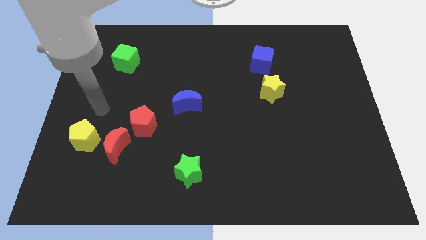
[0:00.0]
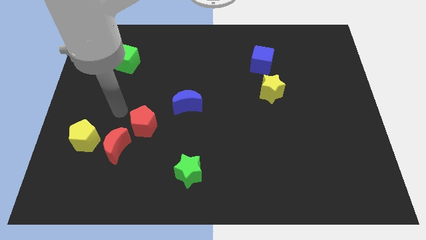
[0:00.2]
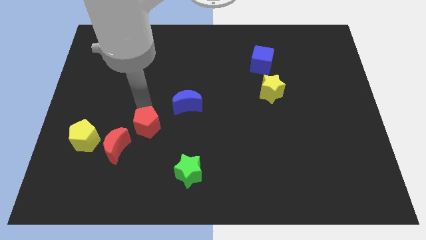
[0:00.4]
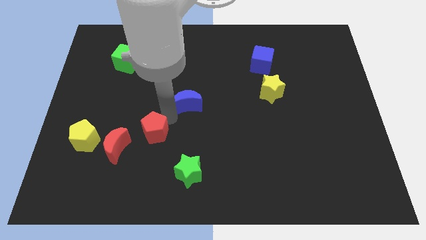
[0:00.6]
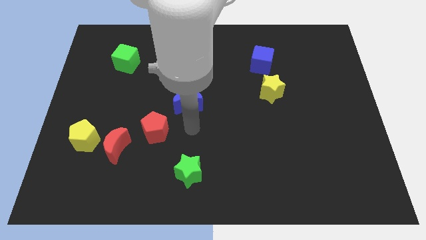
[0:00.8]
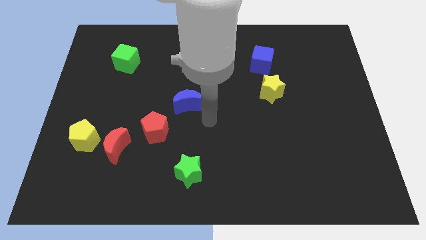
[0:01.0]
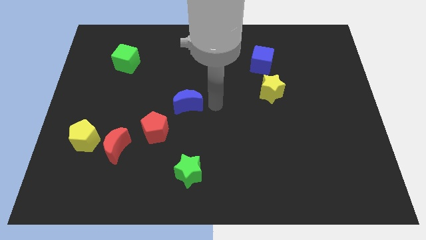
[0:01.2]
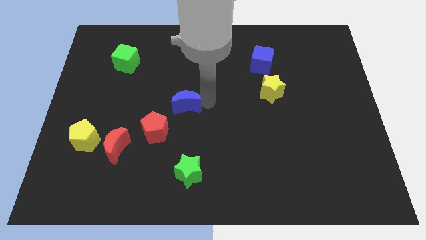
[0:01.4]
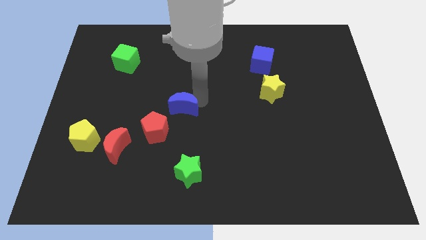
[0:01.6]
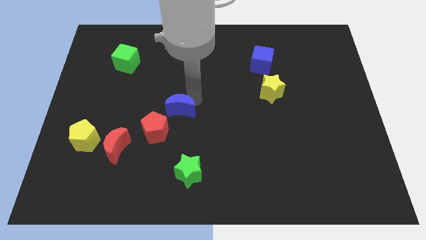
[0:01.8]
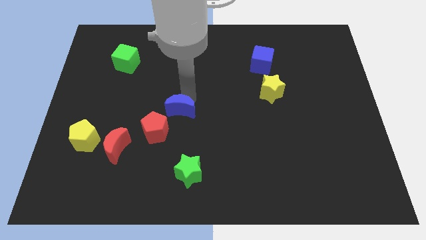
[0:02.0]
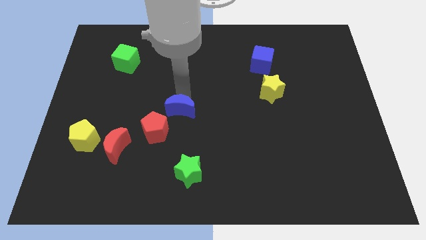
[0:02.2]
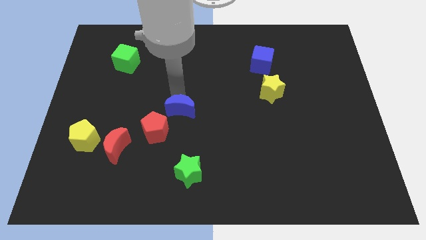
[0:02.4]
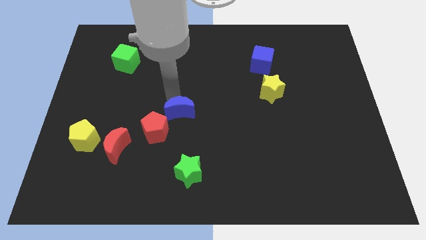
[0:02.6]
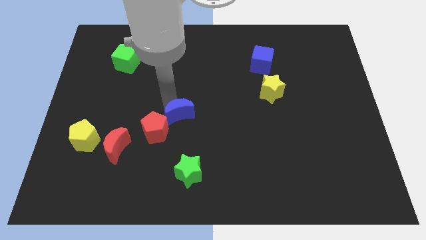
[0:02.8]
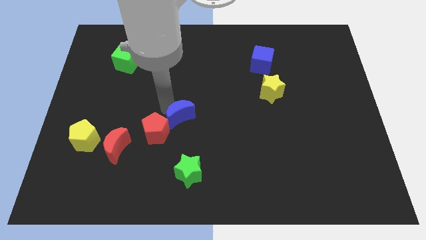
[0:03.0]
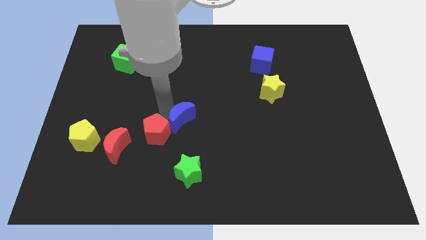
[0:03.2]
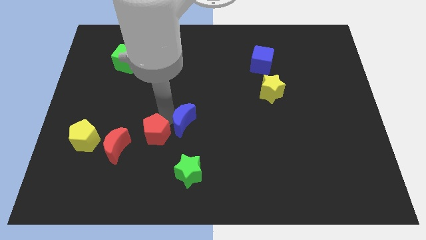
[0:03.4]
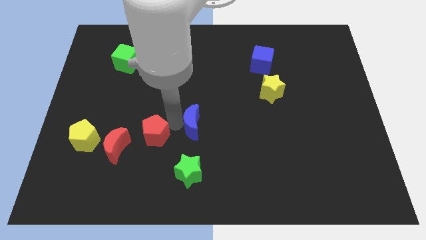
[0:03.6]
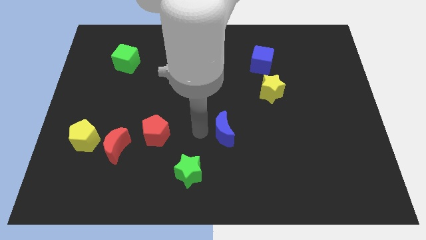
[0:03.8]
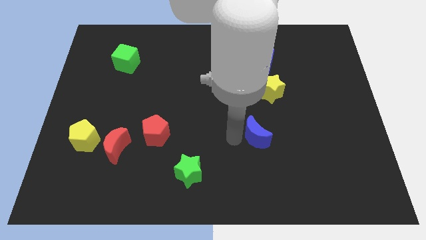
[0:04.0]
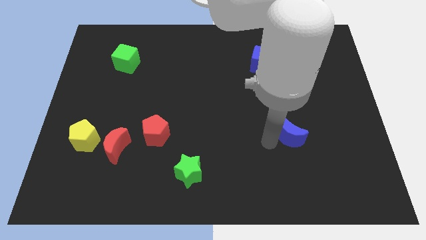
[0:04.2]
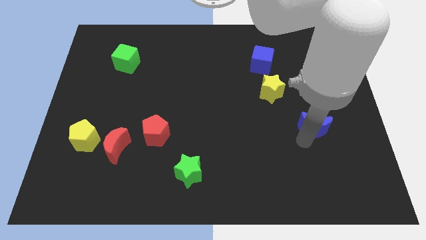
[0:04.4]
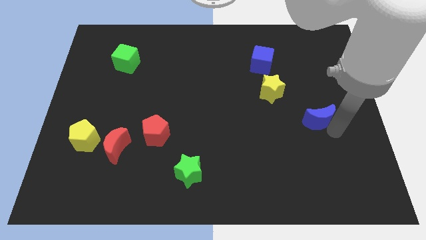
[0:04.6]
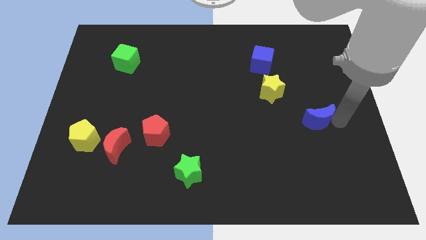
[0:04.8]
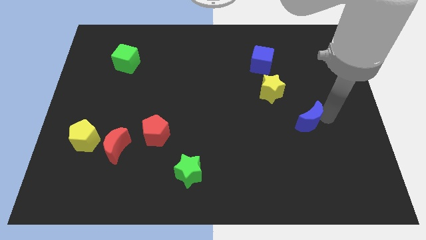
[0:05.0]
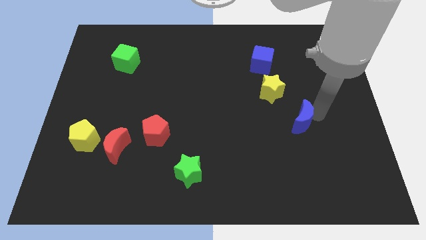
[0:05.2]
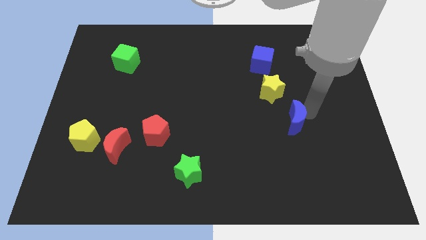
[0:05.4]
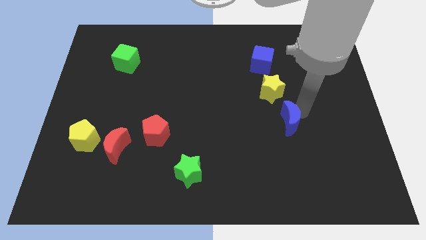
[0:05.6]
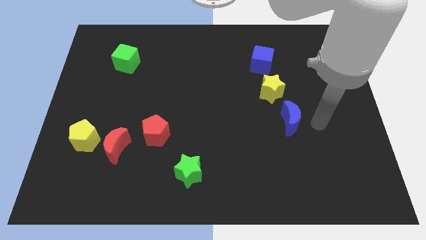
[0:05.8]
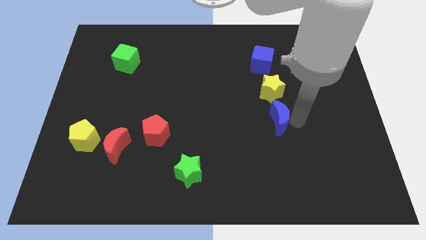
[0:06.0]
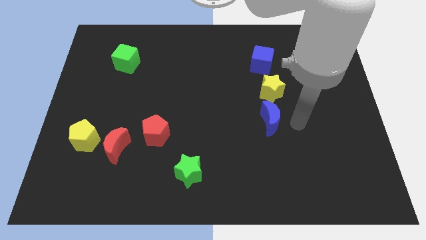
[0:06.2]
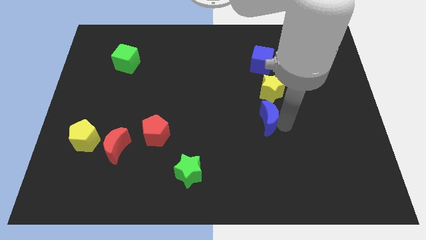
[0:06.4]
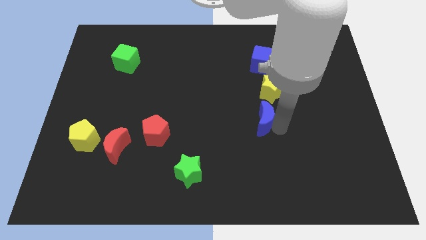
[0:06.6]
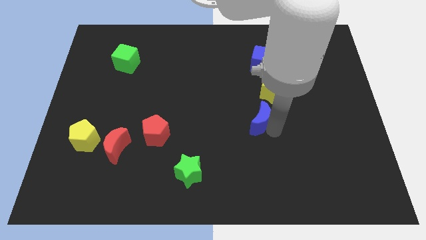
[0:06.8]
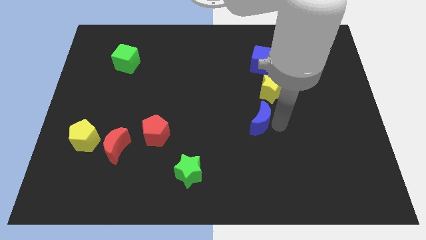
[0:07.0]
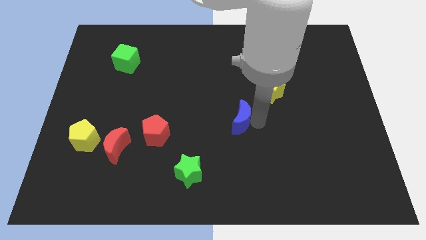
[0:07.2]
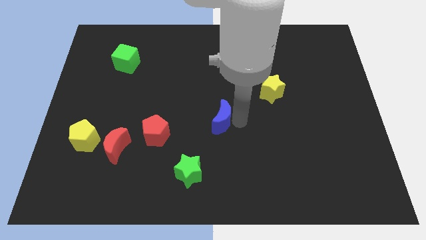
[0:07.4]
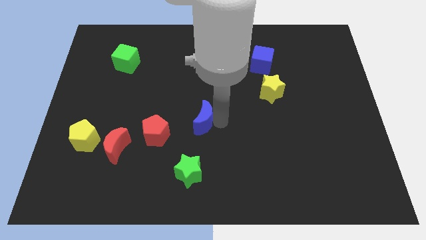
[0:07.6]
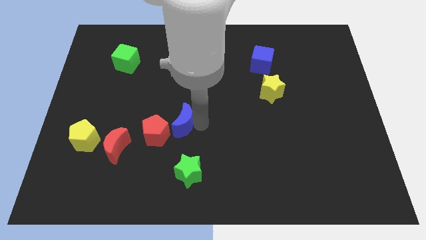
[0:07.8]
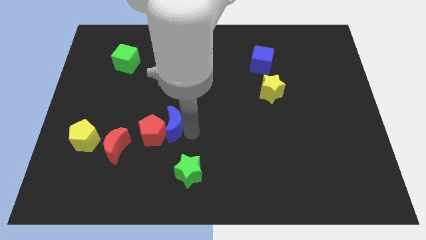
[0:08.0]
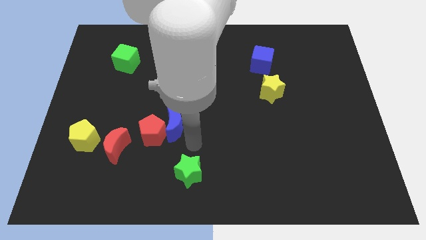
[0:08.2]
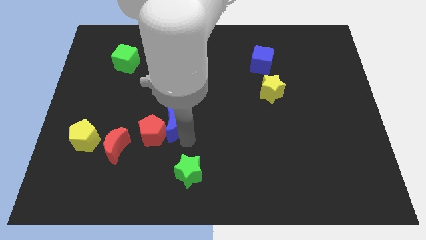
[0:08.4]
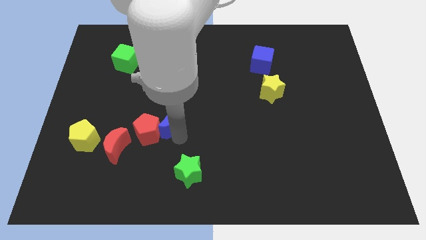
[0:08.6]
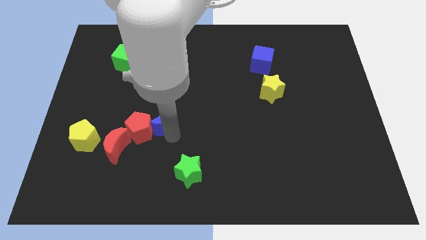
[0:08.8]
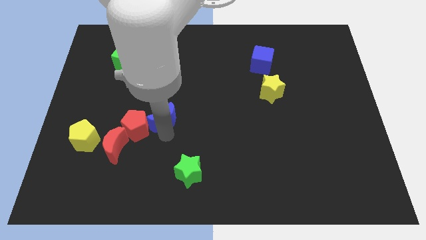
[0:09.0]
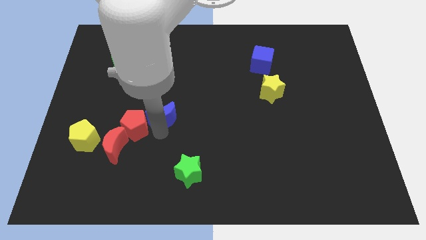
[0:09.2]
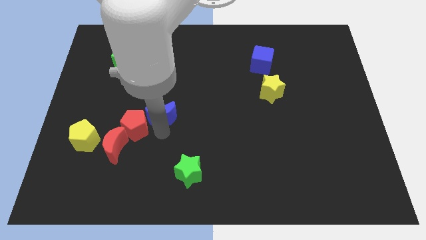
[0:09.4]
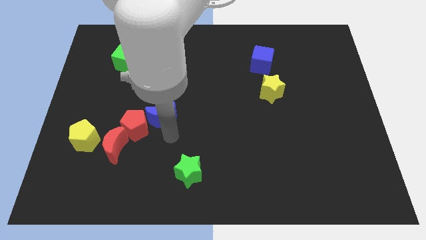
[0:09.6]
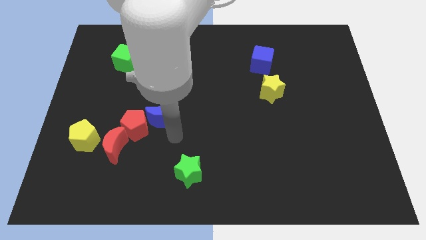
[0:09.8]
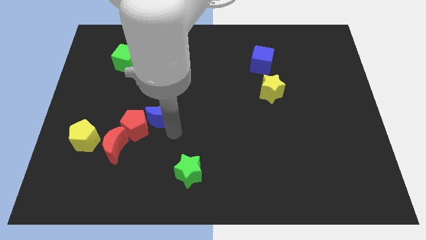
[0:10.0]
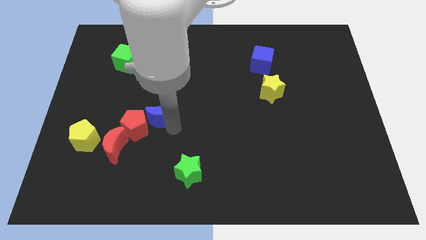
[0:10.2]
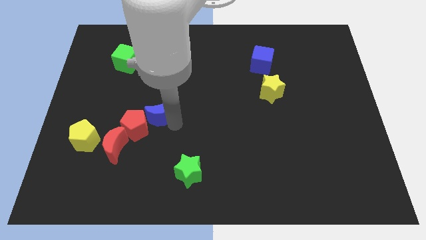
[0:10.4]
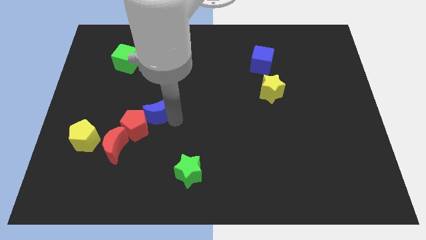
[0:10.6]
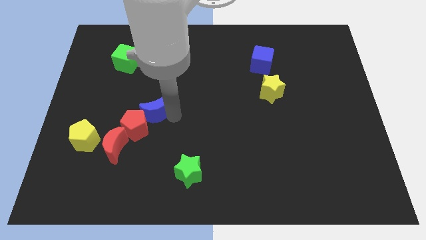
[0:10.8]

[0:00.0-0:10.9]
slightly slide the blue moon left

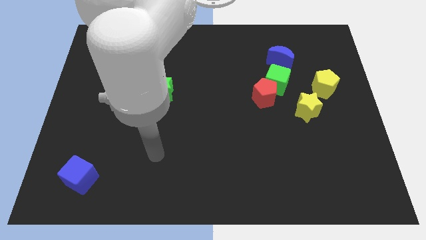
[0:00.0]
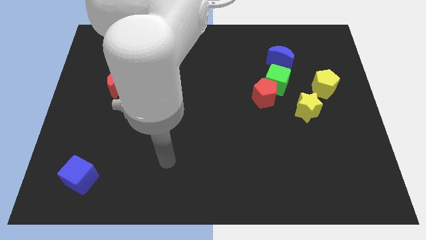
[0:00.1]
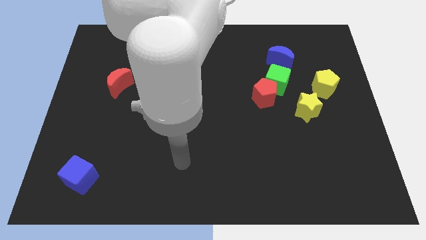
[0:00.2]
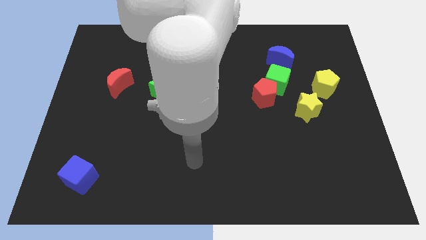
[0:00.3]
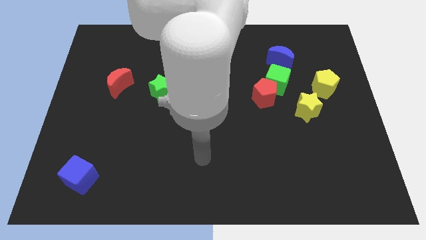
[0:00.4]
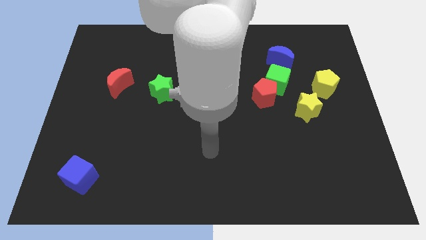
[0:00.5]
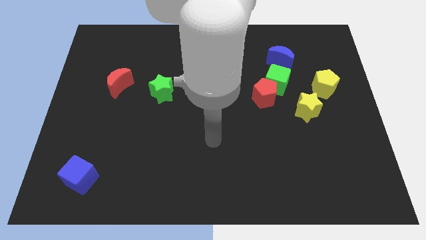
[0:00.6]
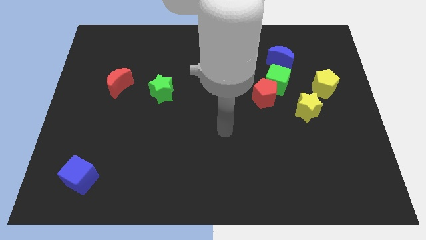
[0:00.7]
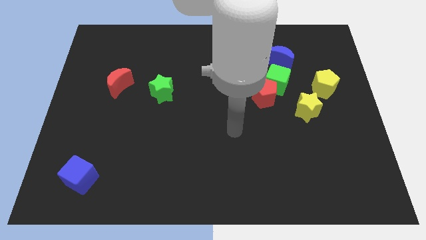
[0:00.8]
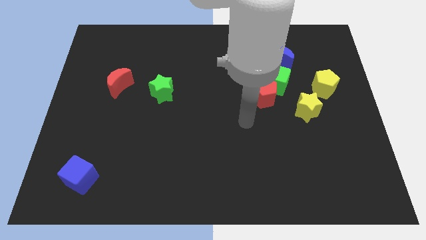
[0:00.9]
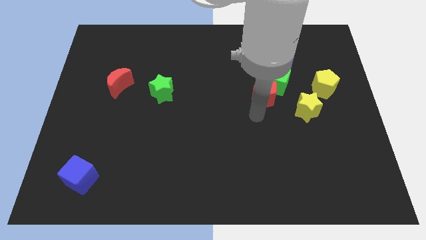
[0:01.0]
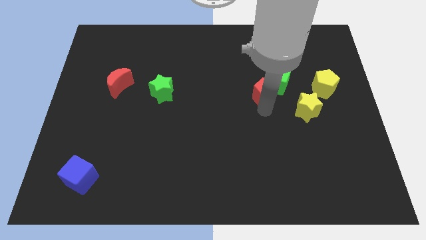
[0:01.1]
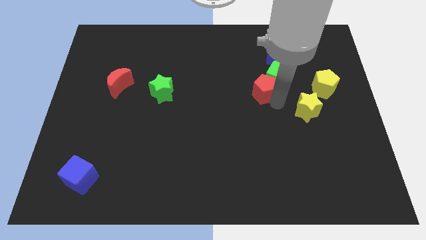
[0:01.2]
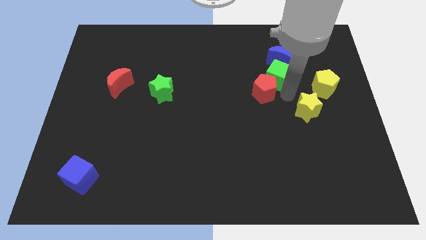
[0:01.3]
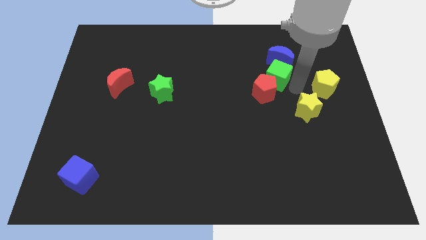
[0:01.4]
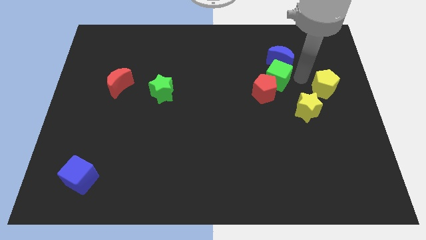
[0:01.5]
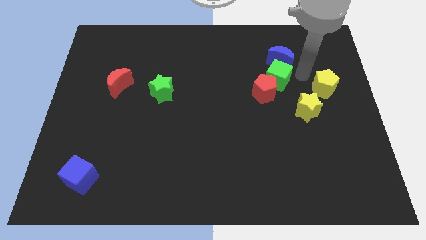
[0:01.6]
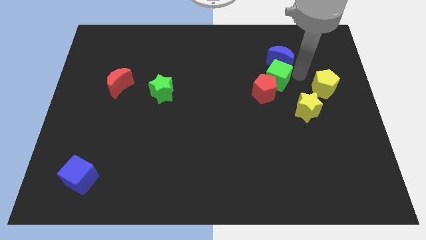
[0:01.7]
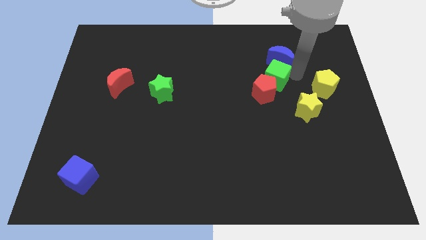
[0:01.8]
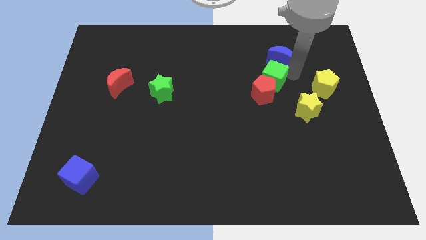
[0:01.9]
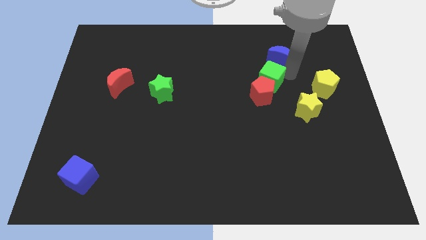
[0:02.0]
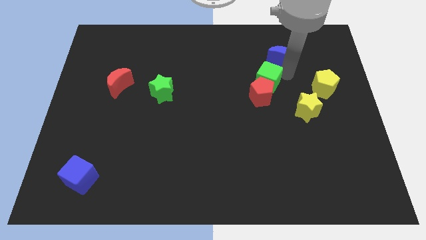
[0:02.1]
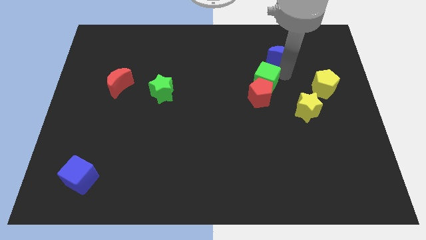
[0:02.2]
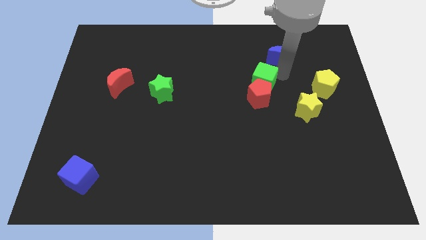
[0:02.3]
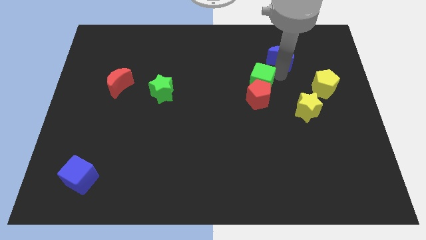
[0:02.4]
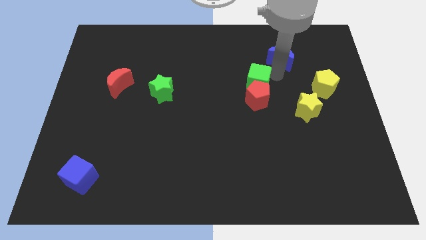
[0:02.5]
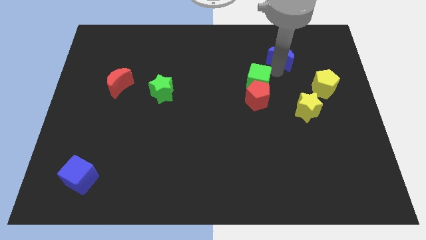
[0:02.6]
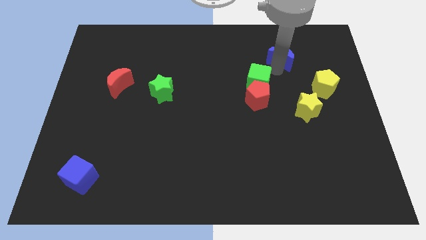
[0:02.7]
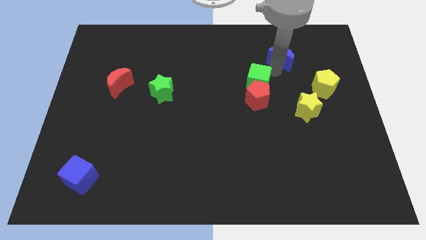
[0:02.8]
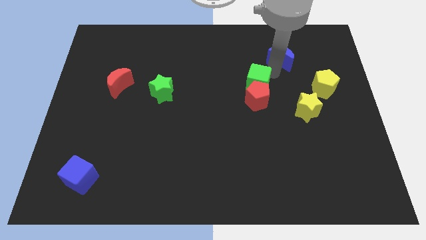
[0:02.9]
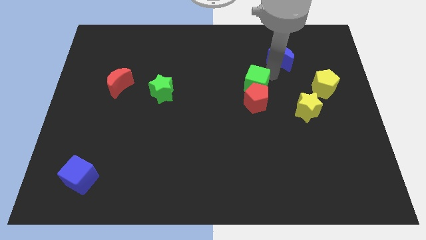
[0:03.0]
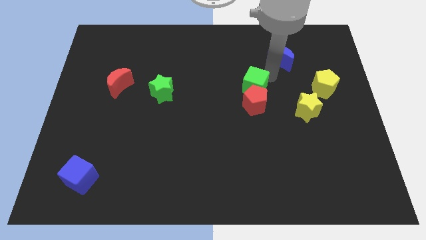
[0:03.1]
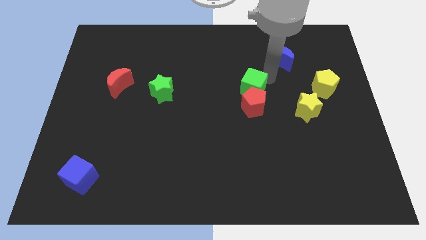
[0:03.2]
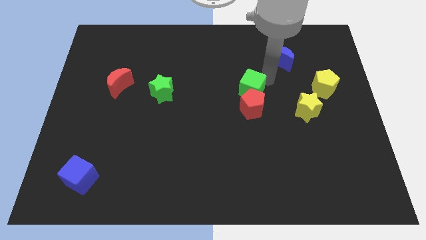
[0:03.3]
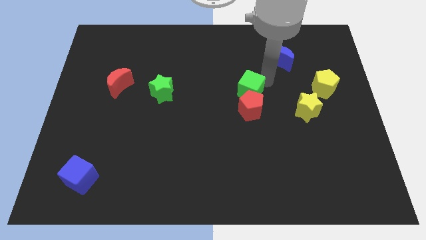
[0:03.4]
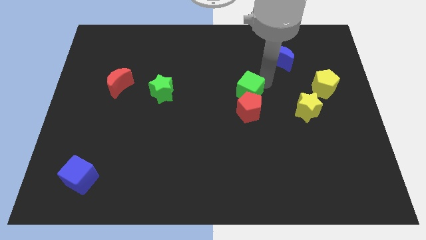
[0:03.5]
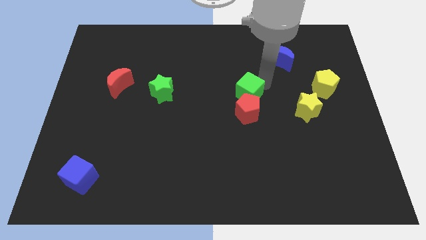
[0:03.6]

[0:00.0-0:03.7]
slide the green cube somewhat diagonally downwards and left
